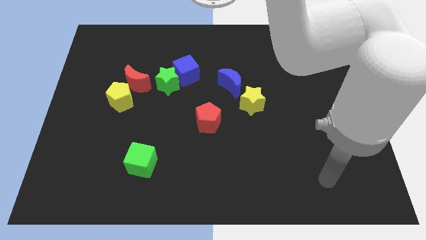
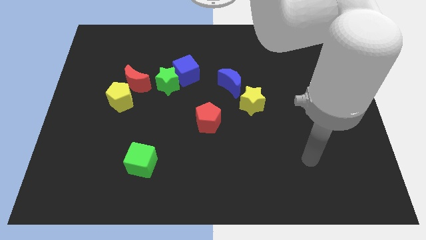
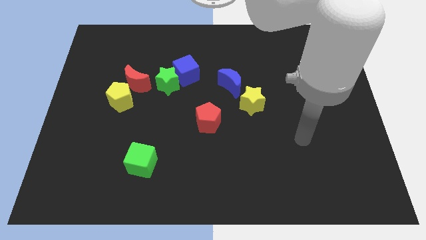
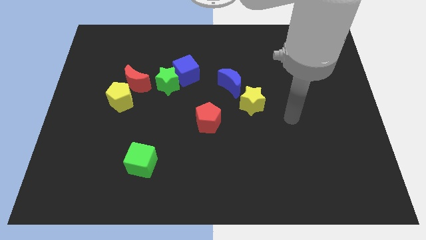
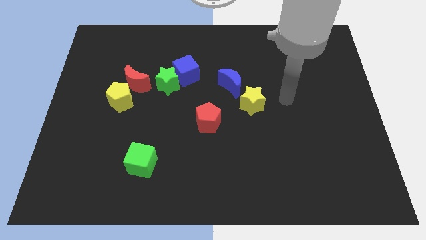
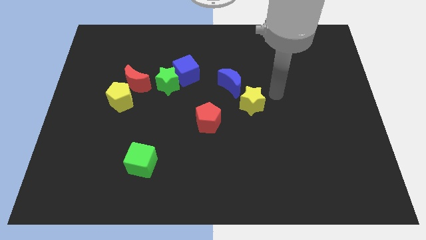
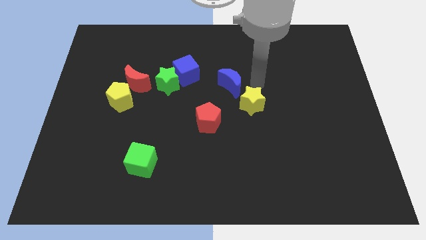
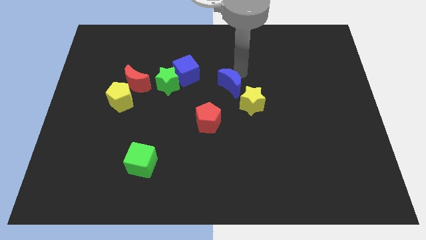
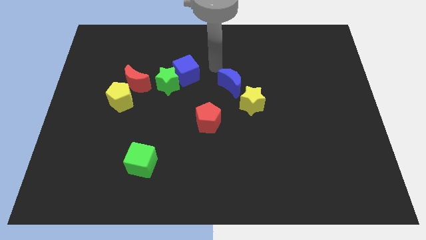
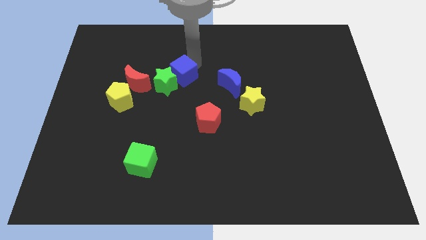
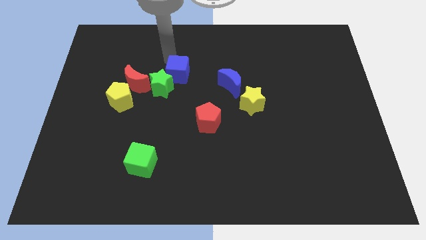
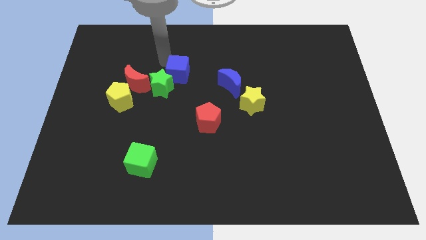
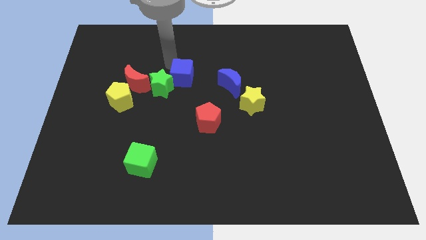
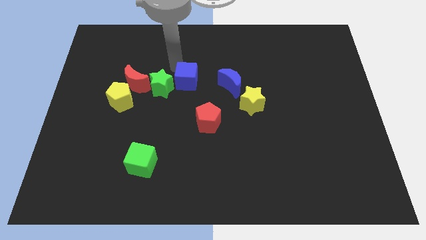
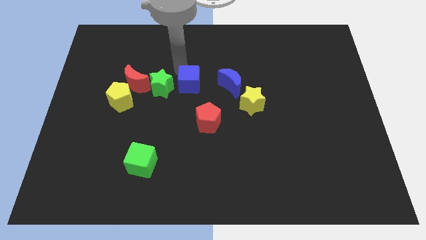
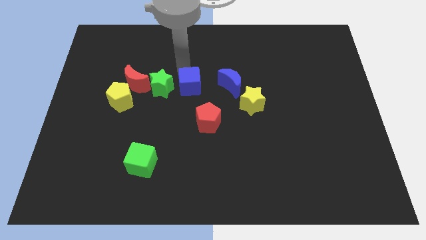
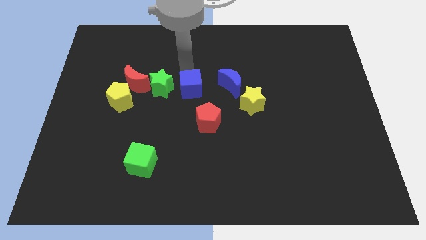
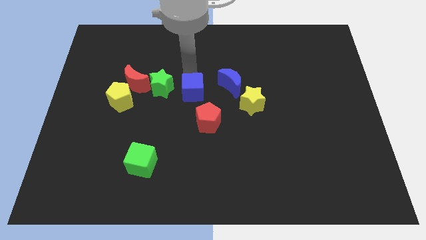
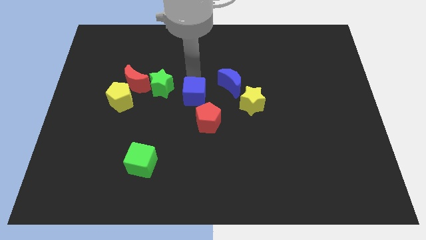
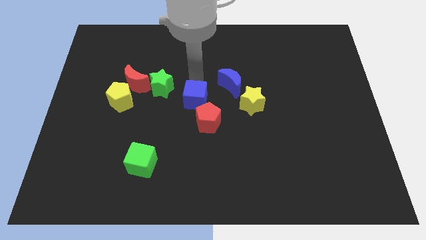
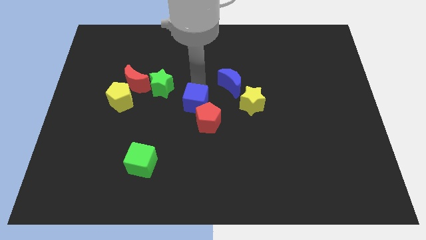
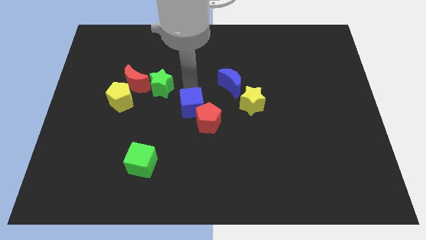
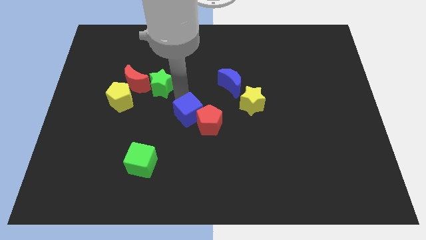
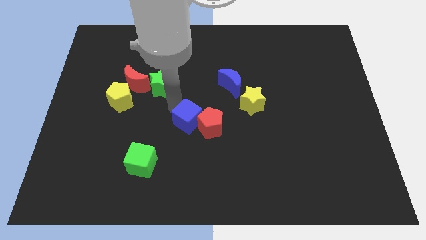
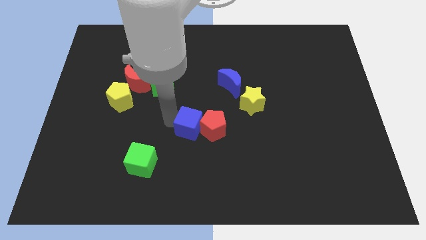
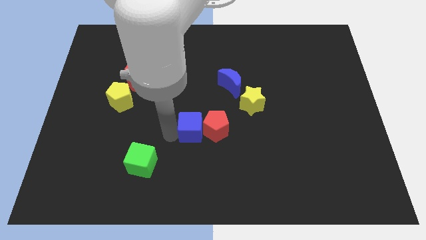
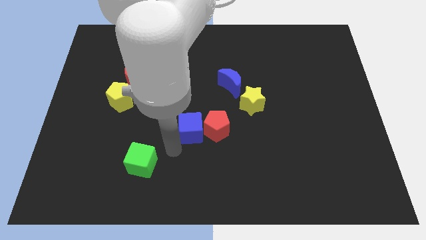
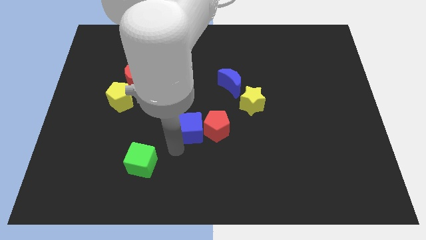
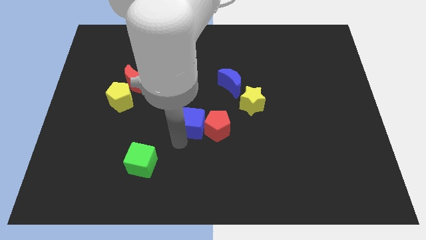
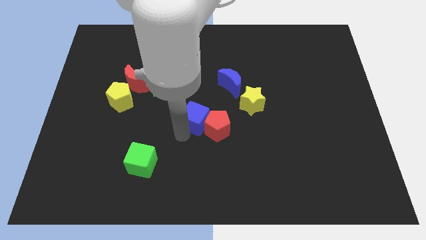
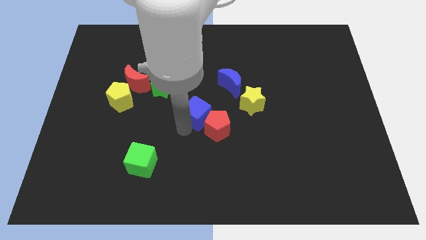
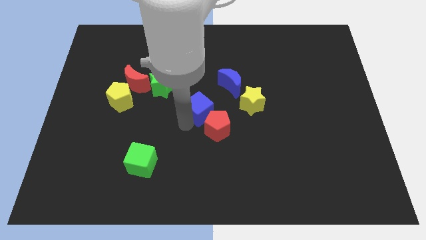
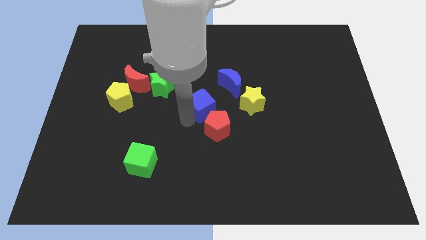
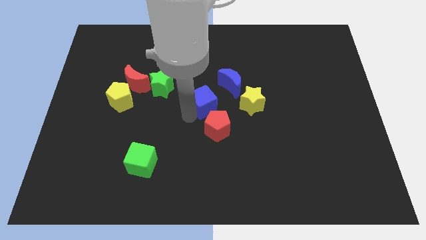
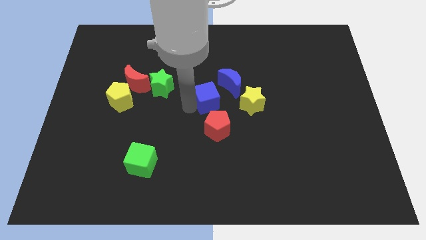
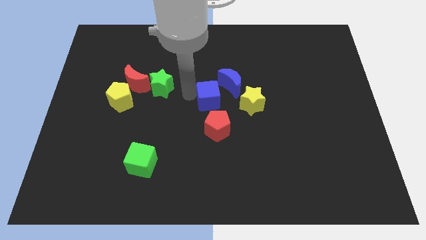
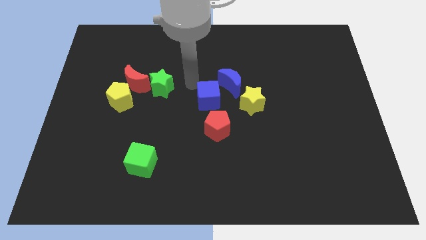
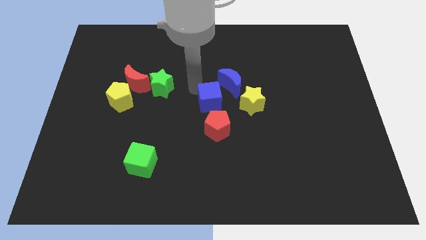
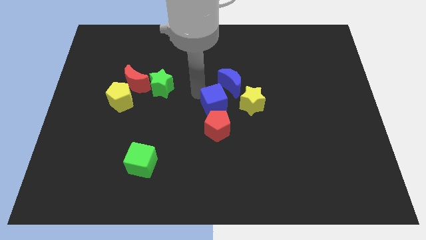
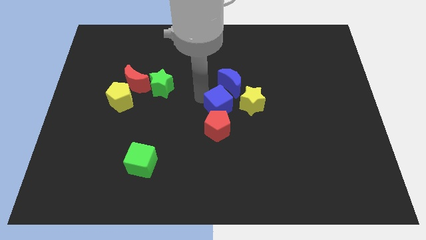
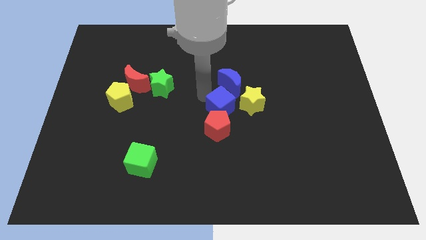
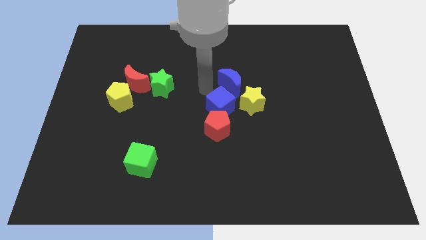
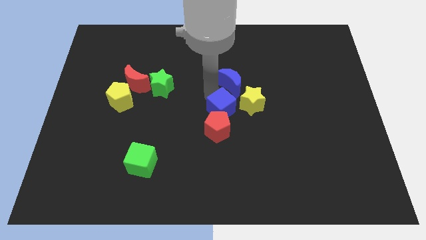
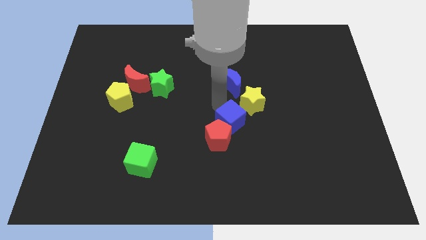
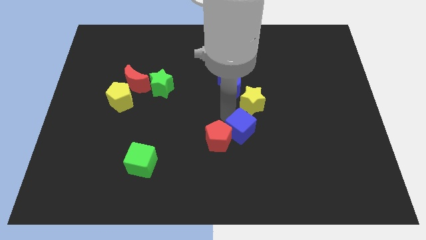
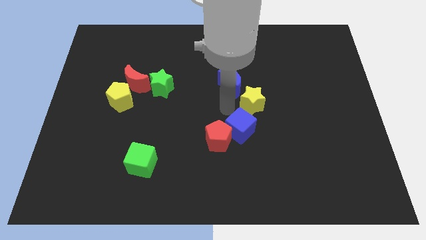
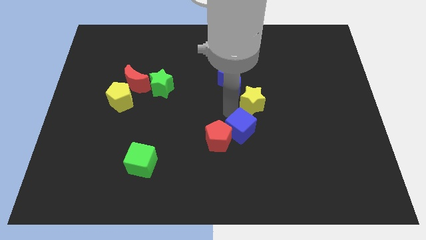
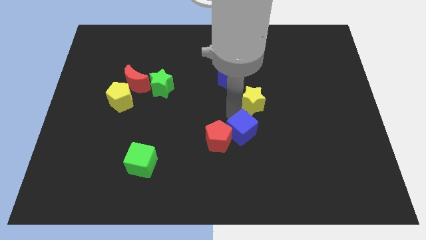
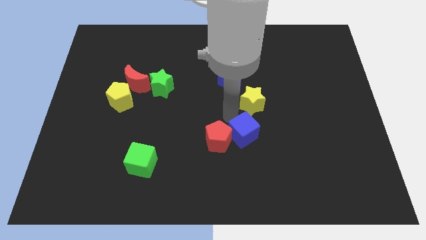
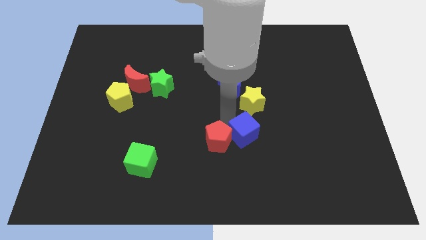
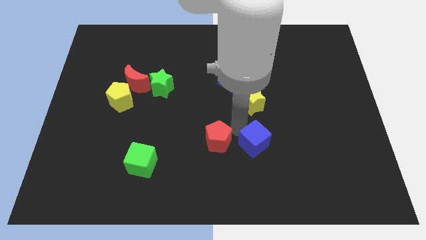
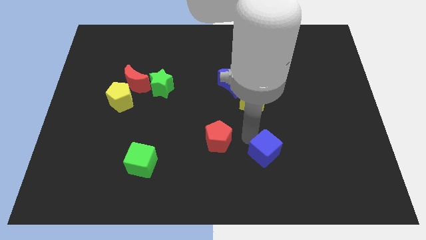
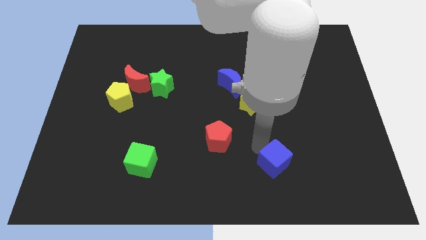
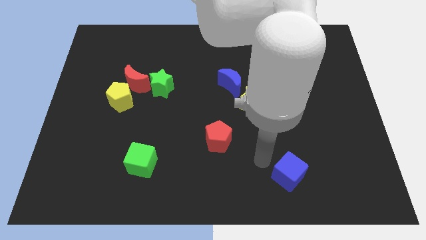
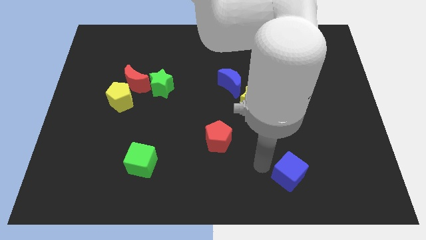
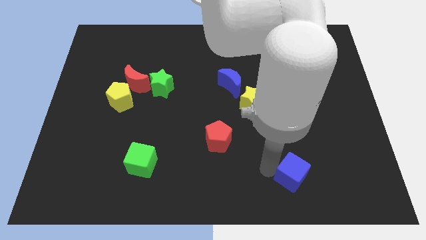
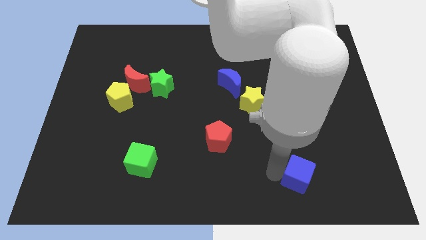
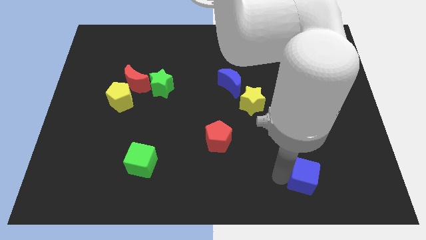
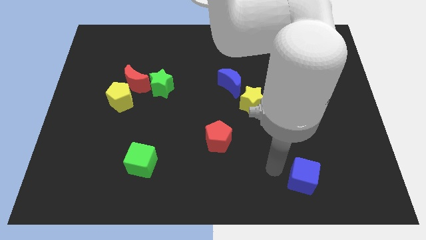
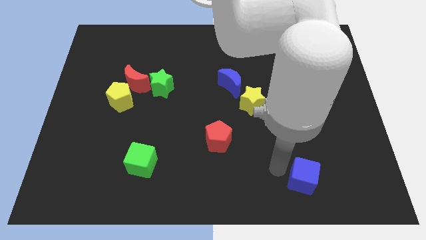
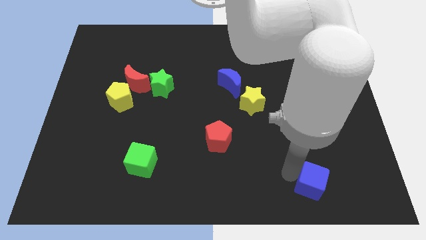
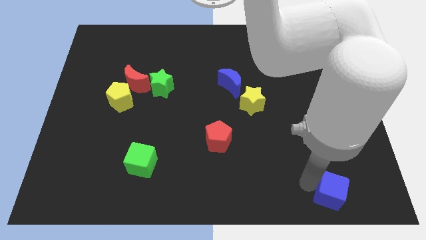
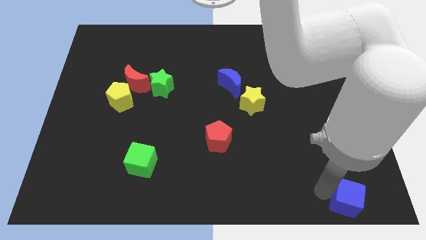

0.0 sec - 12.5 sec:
slide the blue cube to the bottom right of the board
